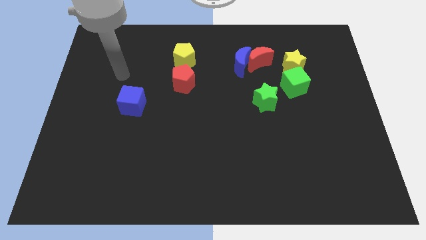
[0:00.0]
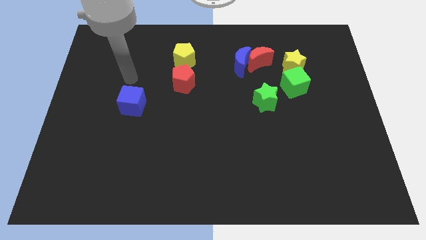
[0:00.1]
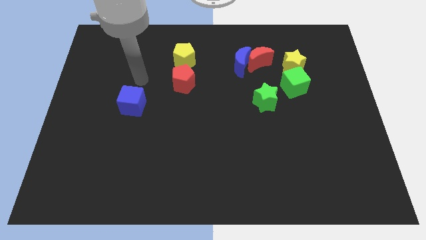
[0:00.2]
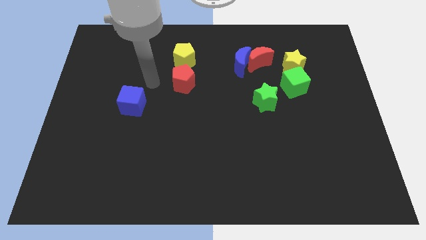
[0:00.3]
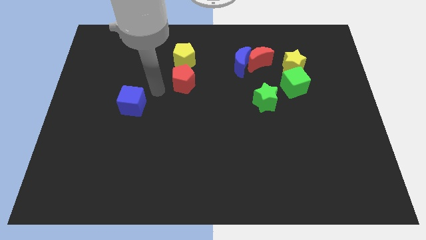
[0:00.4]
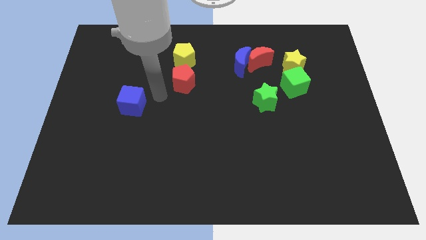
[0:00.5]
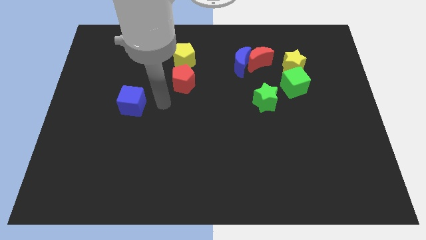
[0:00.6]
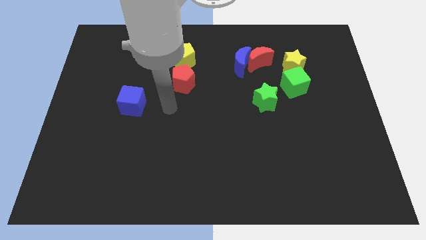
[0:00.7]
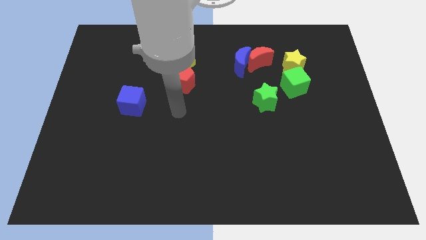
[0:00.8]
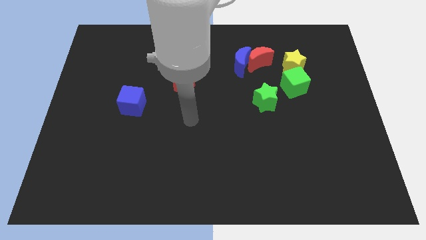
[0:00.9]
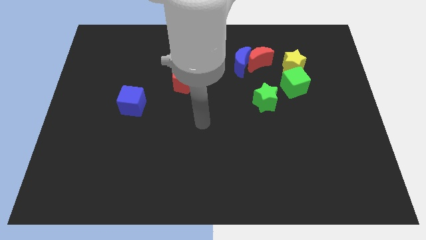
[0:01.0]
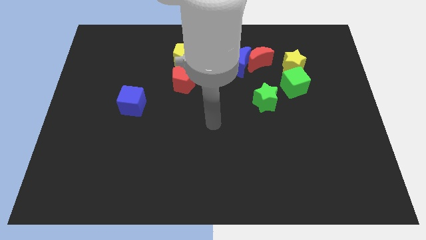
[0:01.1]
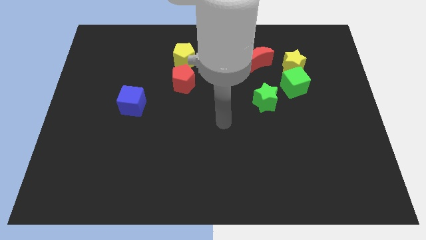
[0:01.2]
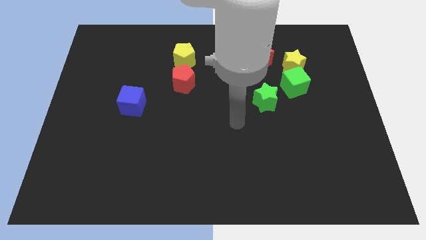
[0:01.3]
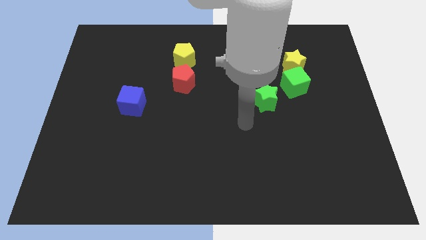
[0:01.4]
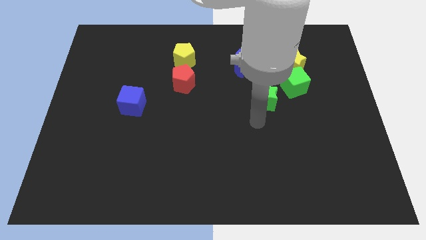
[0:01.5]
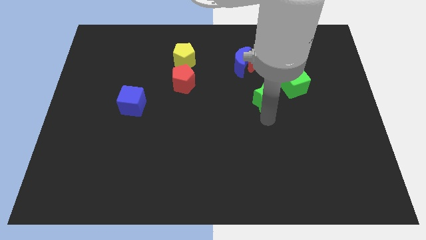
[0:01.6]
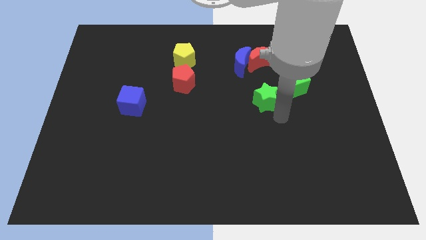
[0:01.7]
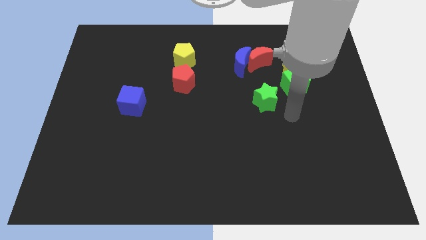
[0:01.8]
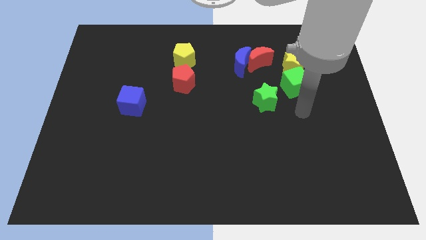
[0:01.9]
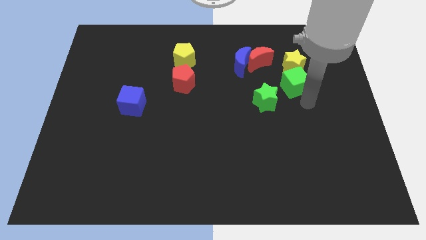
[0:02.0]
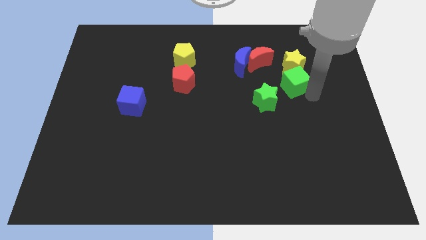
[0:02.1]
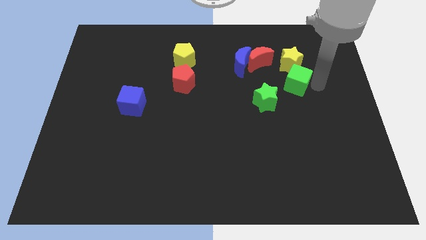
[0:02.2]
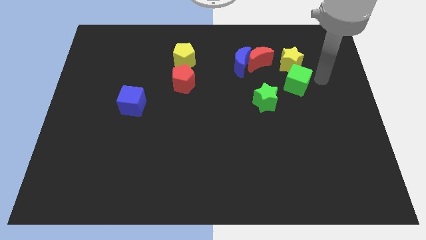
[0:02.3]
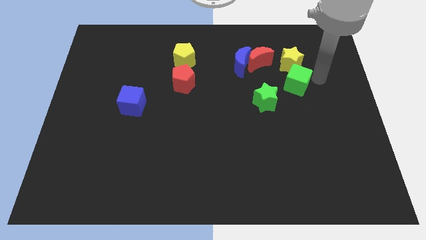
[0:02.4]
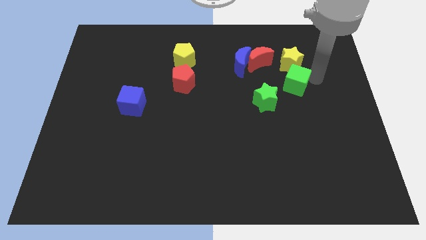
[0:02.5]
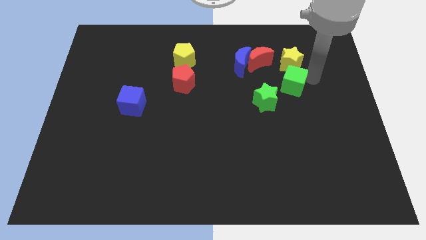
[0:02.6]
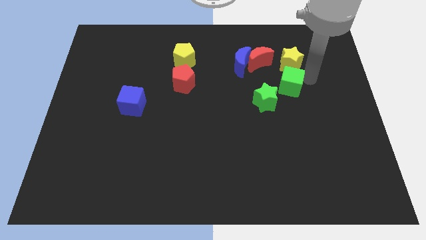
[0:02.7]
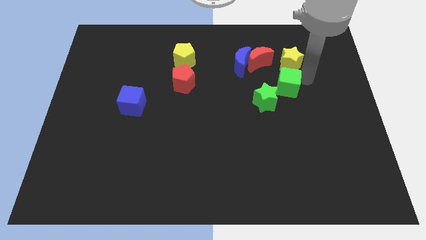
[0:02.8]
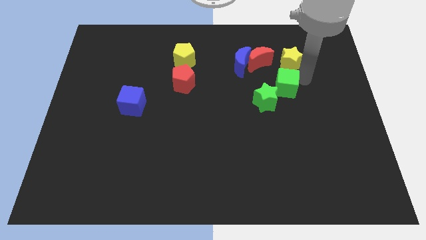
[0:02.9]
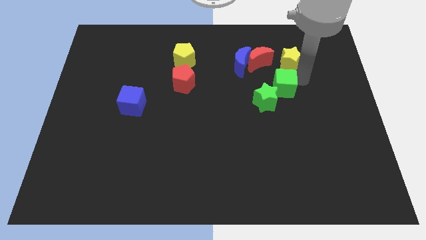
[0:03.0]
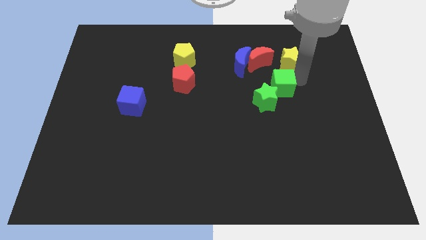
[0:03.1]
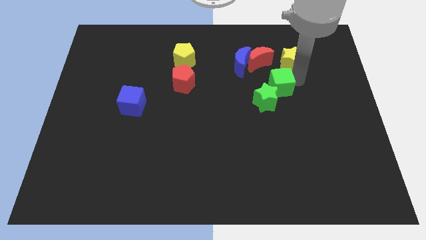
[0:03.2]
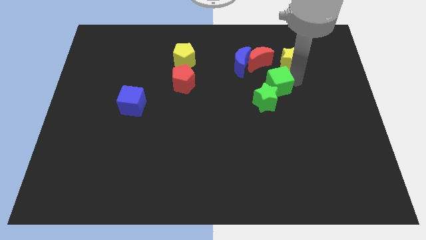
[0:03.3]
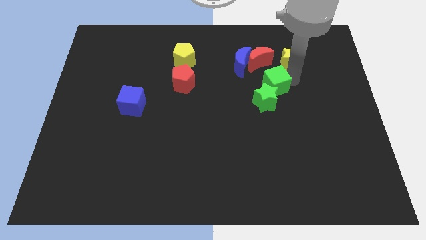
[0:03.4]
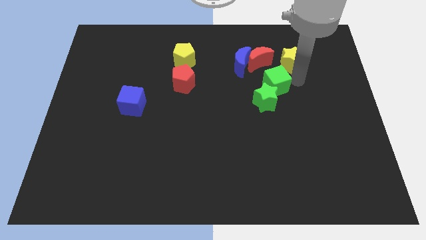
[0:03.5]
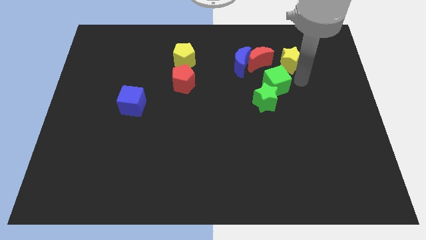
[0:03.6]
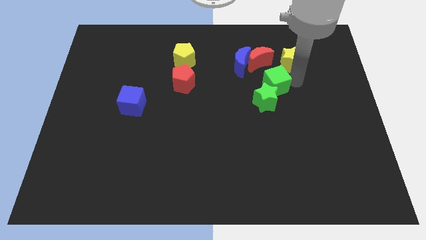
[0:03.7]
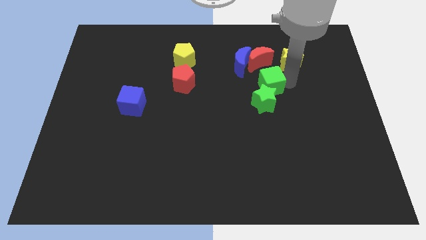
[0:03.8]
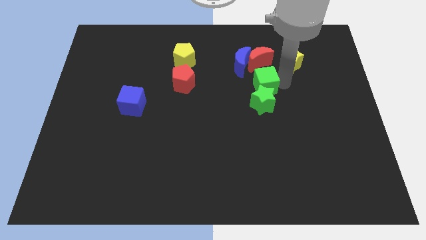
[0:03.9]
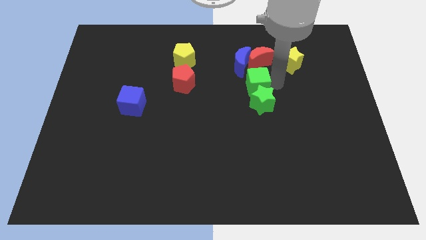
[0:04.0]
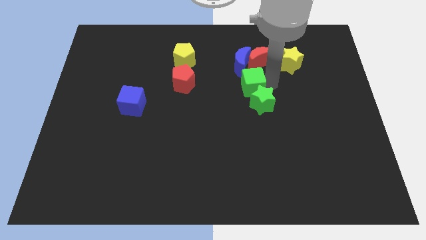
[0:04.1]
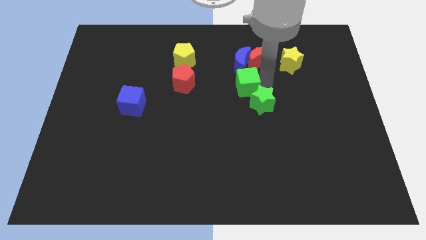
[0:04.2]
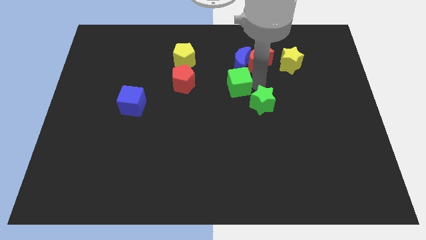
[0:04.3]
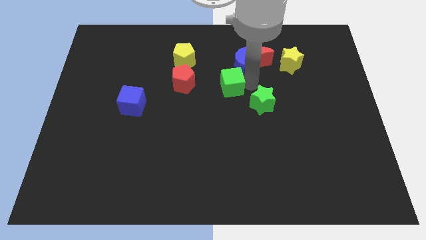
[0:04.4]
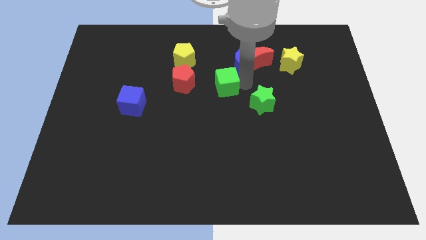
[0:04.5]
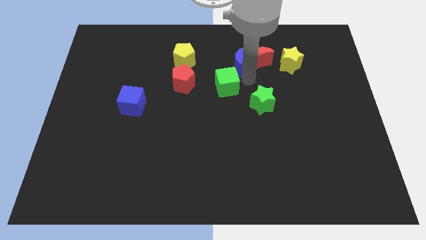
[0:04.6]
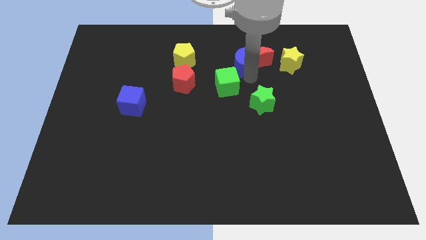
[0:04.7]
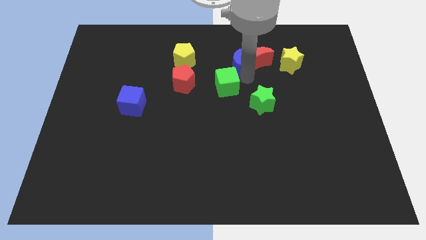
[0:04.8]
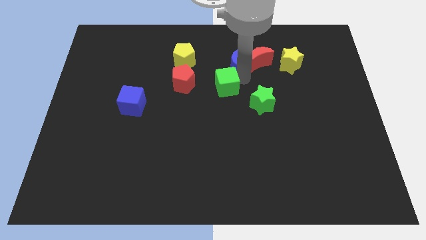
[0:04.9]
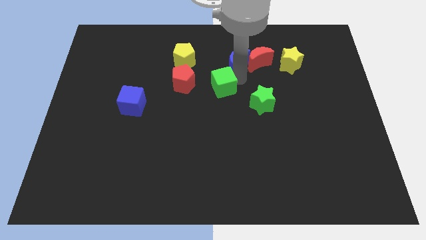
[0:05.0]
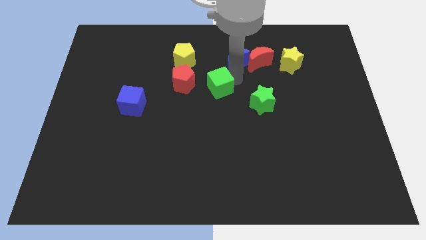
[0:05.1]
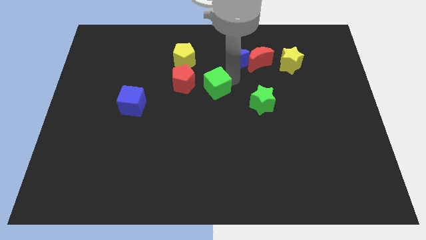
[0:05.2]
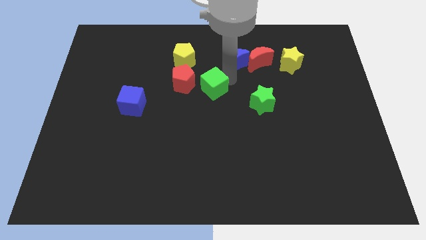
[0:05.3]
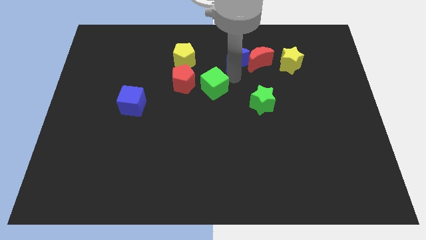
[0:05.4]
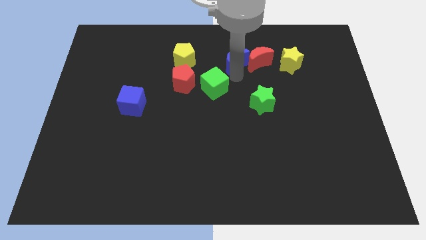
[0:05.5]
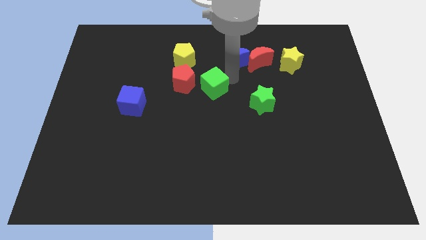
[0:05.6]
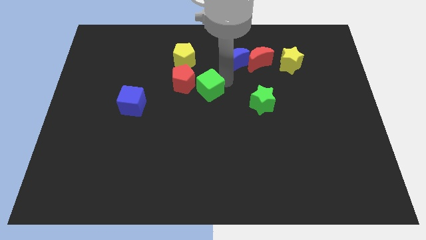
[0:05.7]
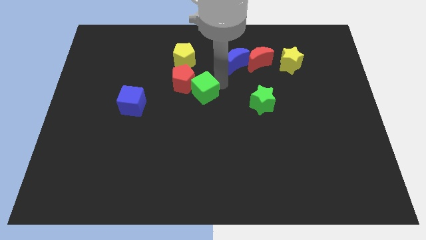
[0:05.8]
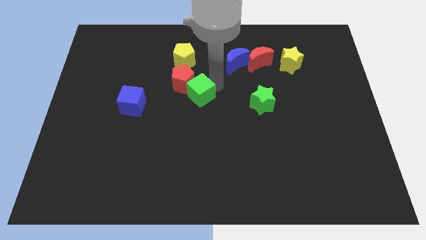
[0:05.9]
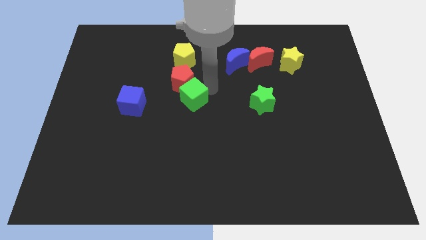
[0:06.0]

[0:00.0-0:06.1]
push the green cube to the right side of the blue cube
